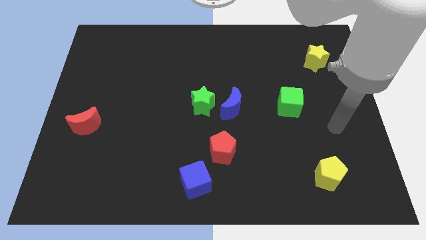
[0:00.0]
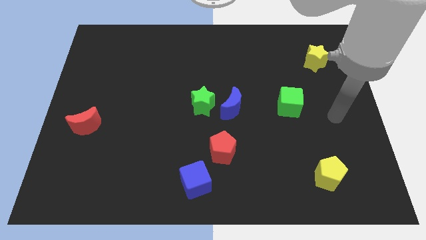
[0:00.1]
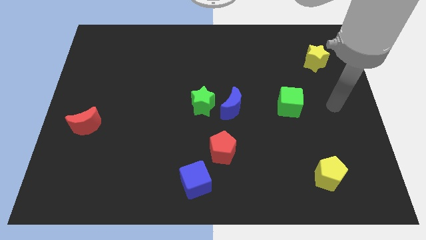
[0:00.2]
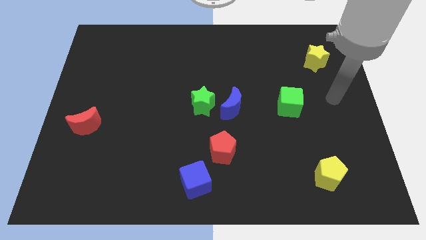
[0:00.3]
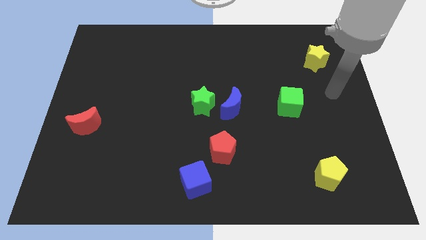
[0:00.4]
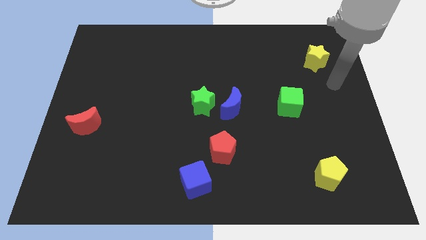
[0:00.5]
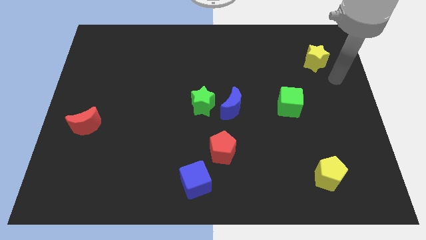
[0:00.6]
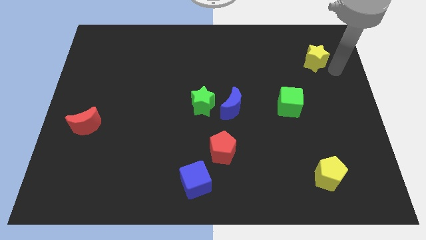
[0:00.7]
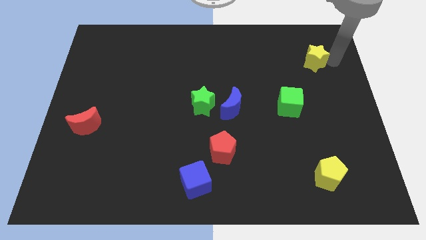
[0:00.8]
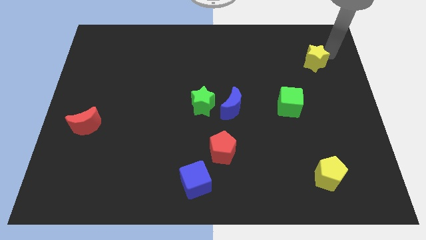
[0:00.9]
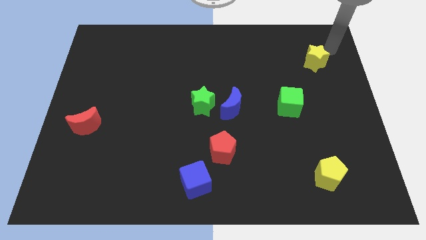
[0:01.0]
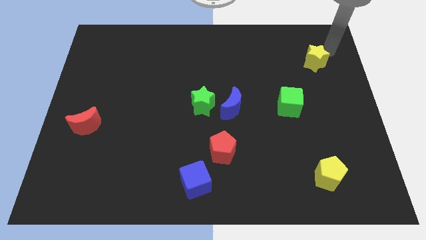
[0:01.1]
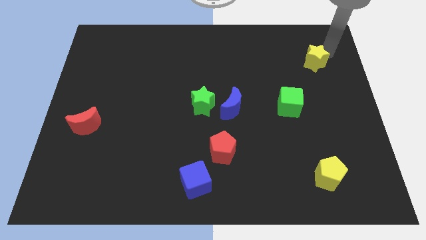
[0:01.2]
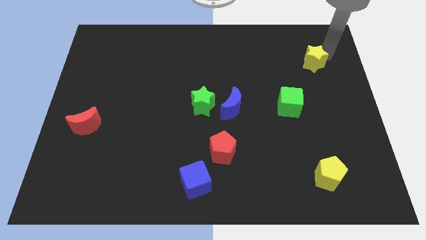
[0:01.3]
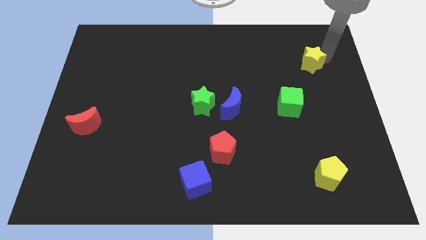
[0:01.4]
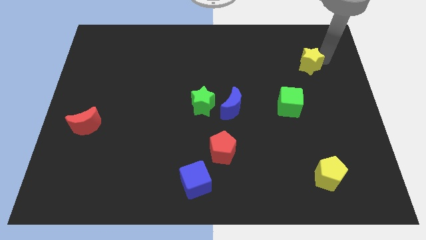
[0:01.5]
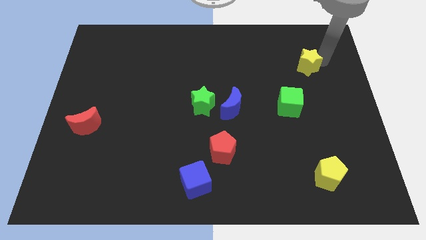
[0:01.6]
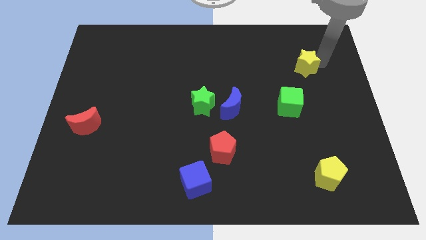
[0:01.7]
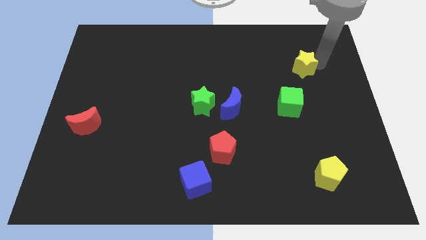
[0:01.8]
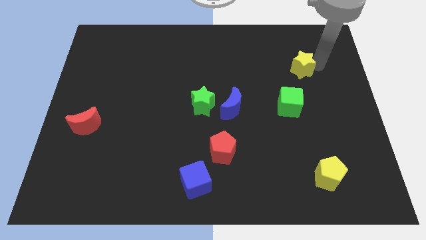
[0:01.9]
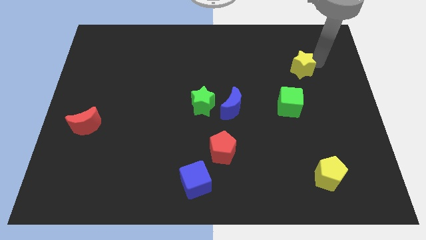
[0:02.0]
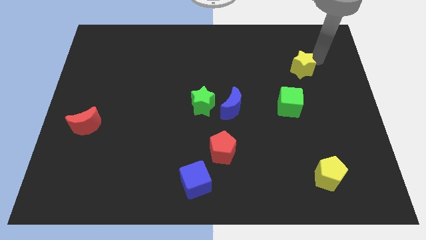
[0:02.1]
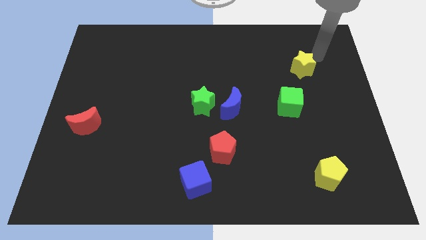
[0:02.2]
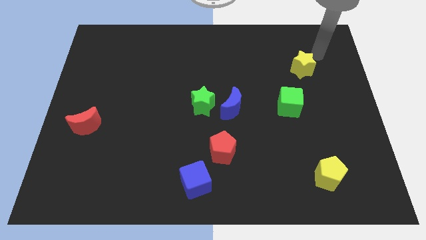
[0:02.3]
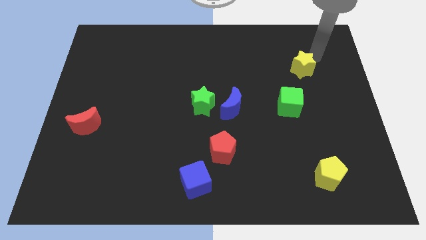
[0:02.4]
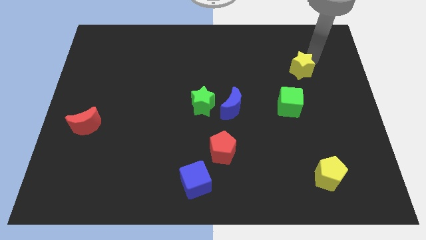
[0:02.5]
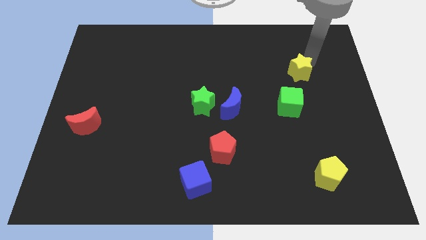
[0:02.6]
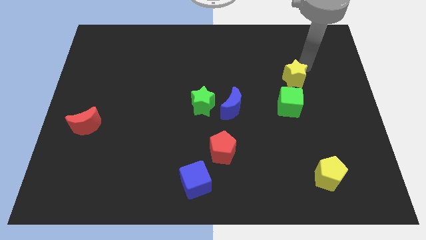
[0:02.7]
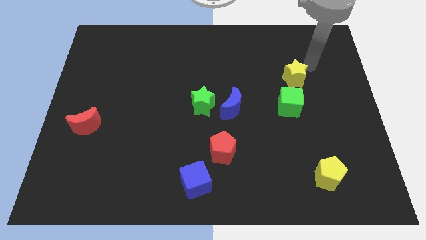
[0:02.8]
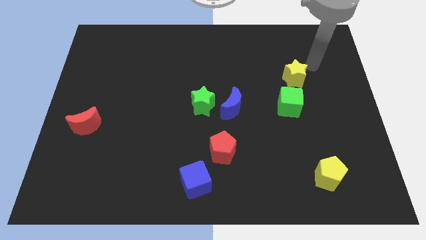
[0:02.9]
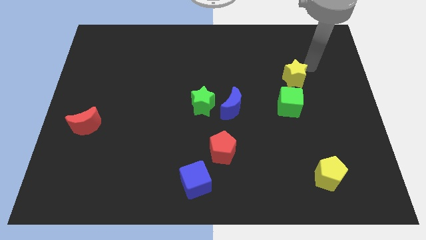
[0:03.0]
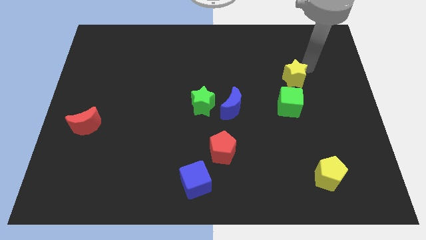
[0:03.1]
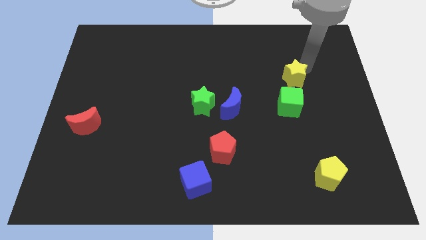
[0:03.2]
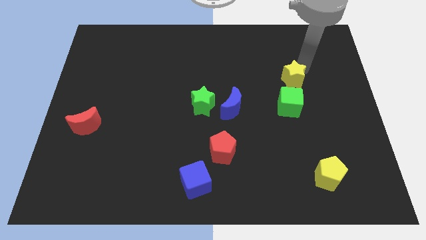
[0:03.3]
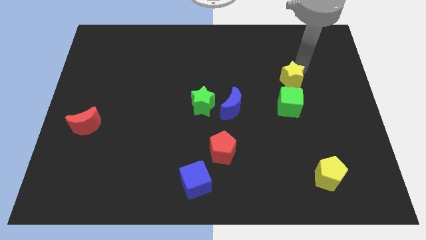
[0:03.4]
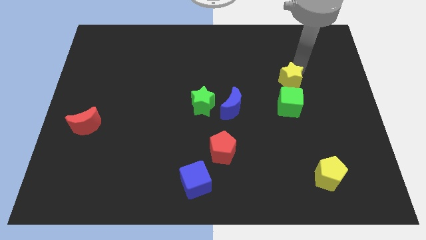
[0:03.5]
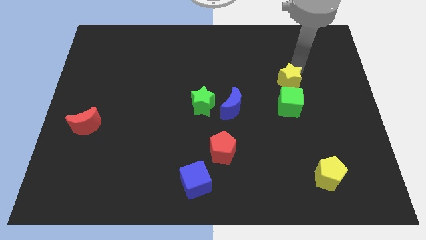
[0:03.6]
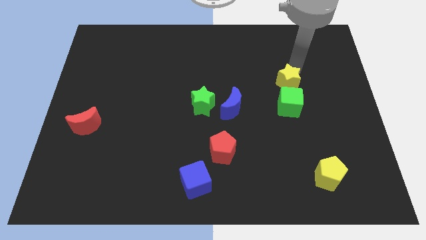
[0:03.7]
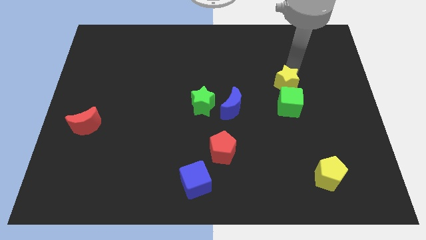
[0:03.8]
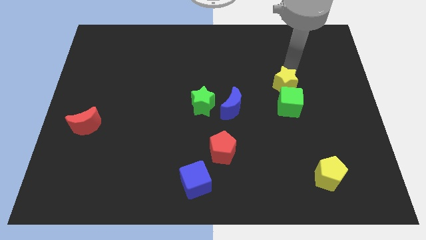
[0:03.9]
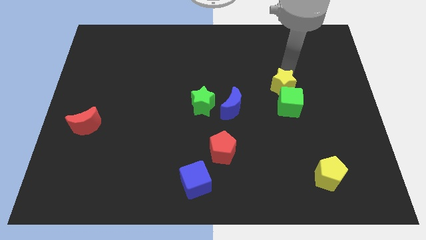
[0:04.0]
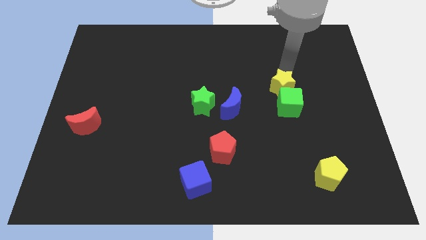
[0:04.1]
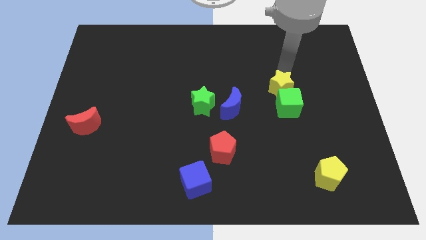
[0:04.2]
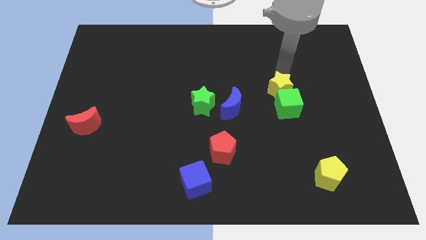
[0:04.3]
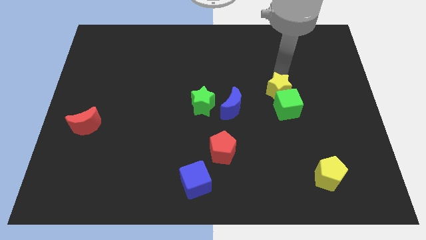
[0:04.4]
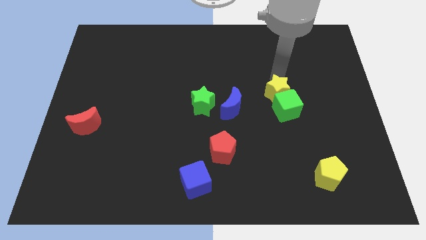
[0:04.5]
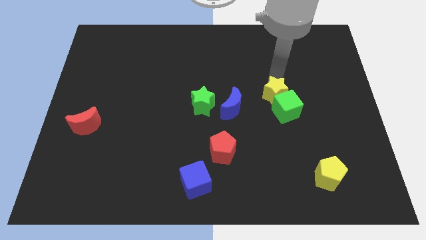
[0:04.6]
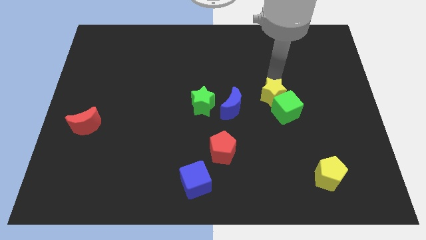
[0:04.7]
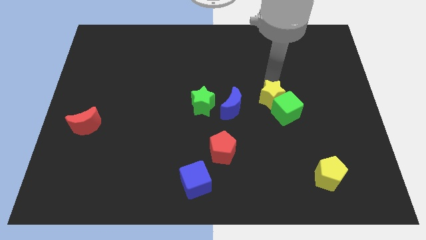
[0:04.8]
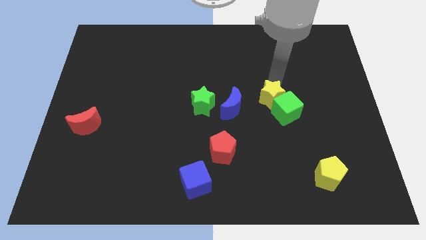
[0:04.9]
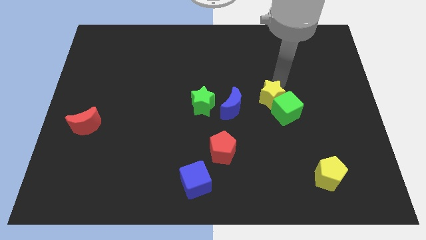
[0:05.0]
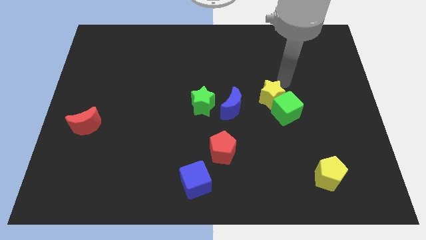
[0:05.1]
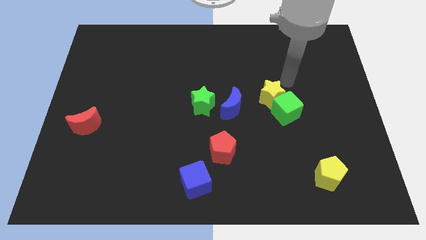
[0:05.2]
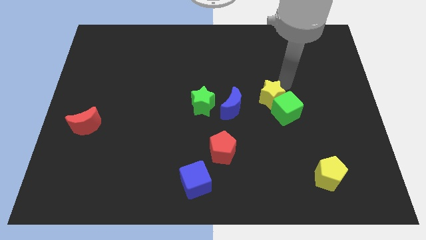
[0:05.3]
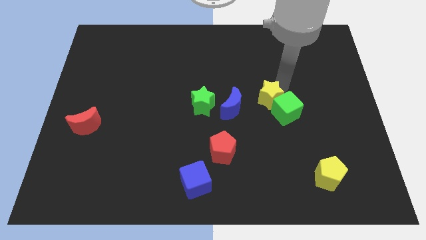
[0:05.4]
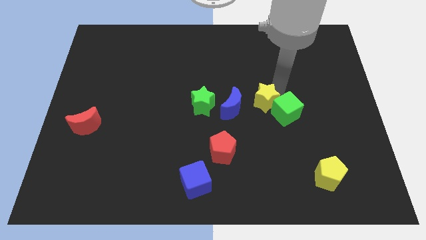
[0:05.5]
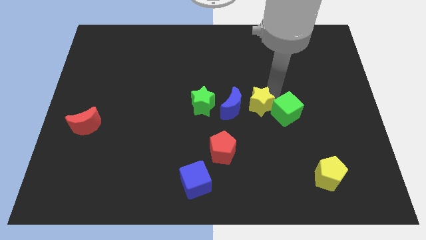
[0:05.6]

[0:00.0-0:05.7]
slide the yellow star downwards and to the left

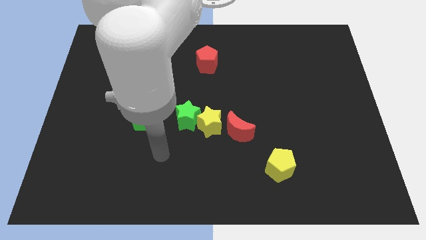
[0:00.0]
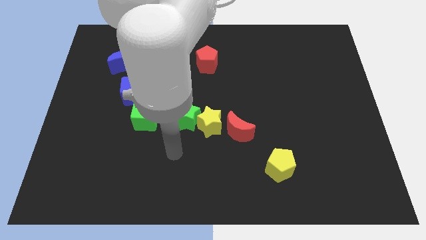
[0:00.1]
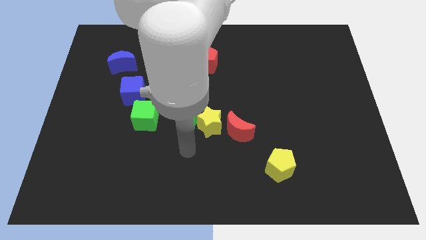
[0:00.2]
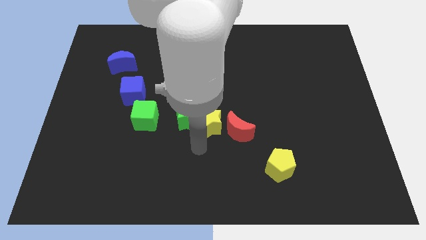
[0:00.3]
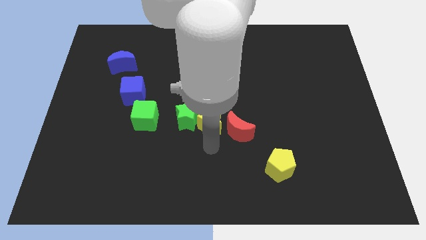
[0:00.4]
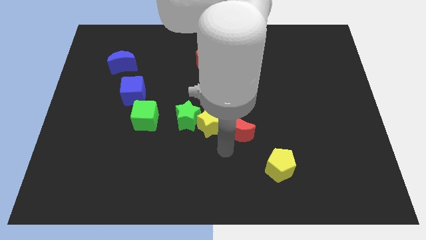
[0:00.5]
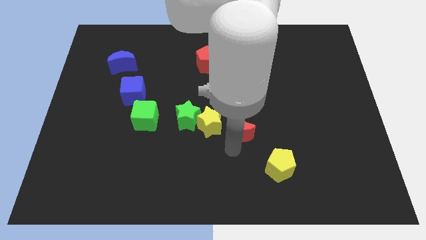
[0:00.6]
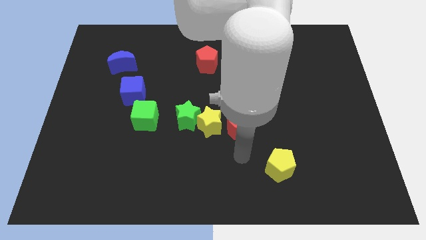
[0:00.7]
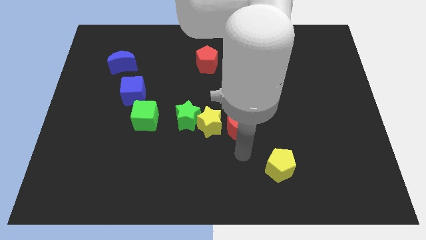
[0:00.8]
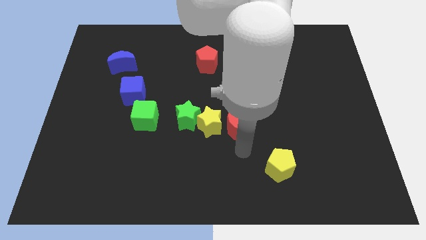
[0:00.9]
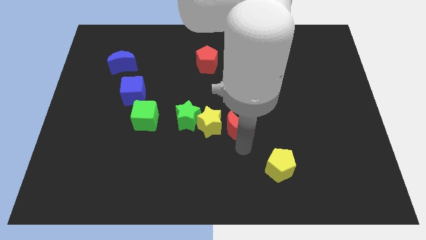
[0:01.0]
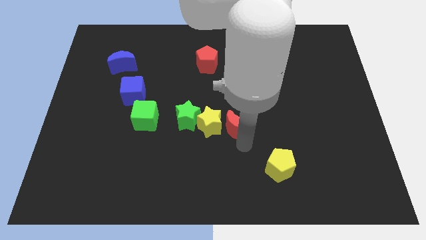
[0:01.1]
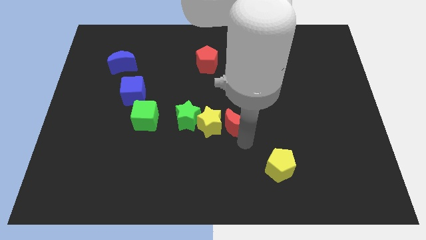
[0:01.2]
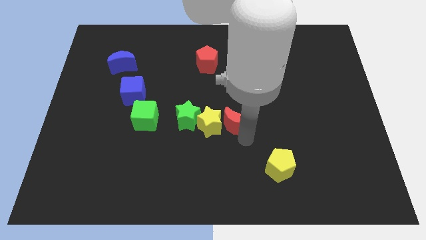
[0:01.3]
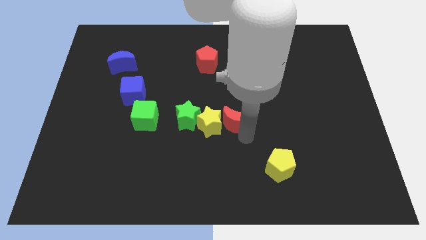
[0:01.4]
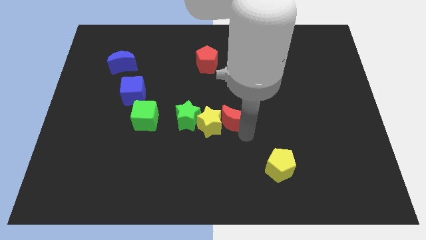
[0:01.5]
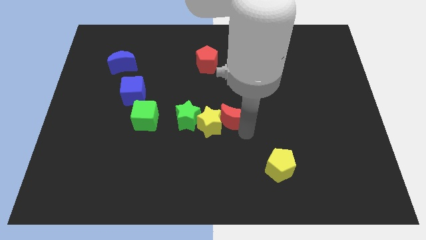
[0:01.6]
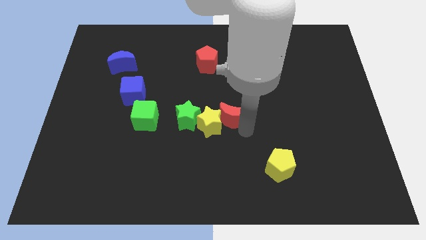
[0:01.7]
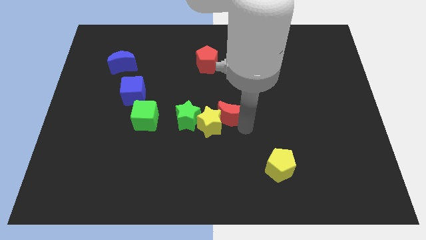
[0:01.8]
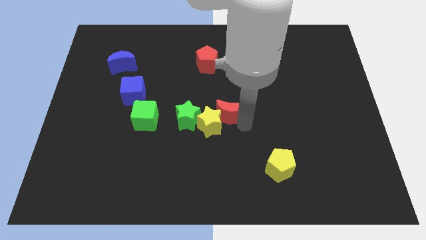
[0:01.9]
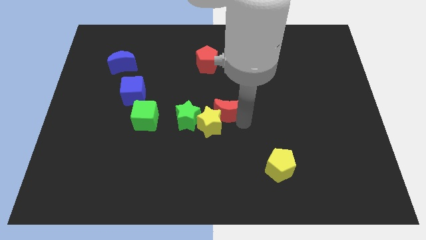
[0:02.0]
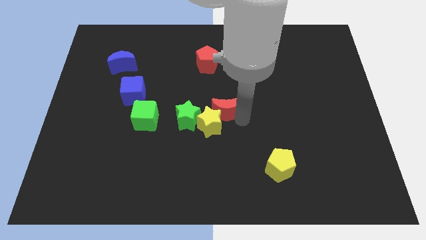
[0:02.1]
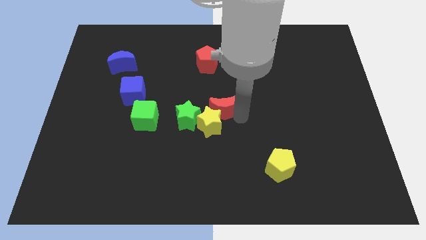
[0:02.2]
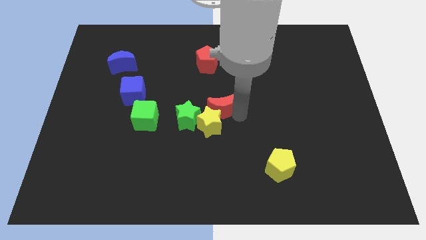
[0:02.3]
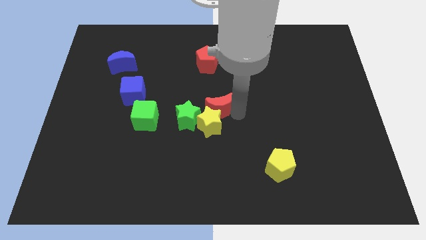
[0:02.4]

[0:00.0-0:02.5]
push the red moon slightly up and left
